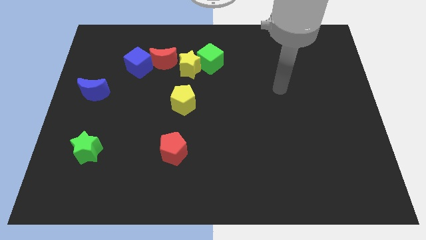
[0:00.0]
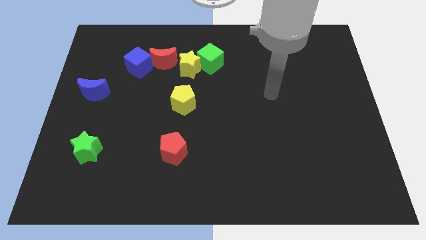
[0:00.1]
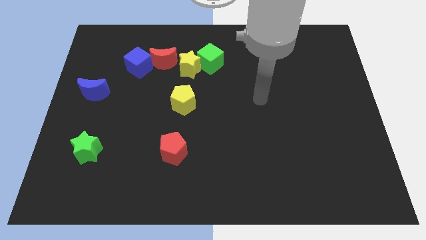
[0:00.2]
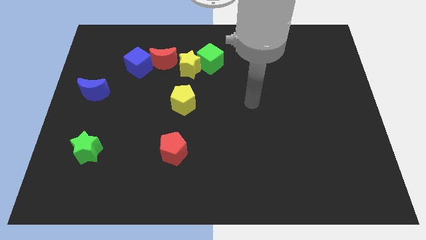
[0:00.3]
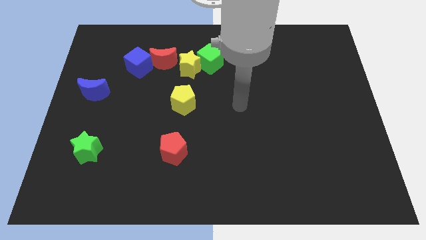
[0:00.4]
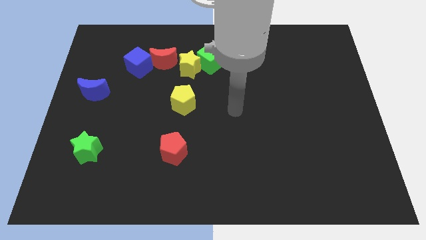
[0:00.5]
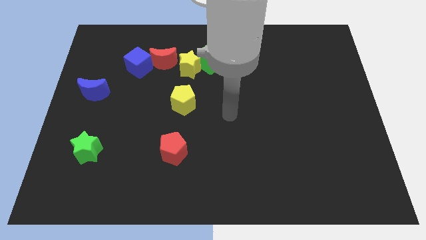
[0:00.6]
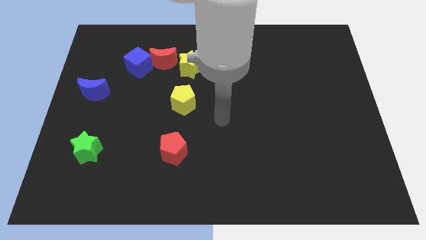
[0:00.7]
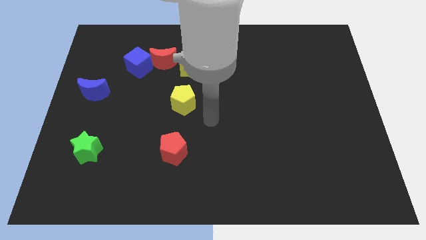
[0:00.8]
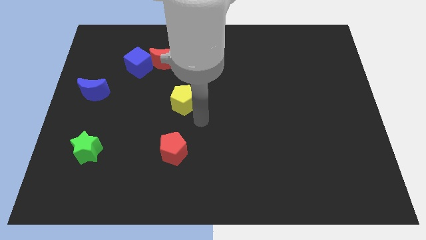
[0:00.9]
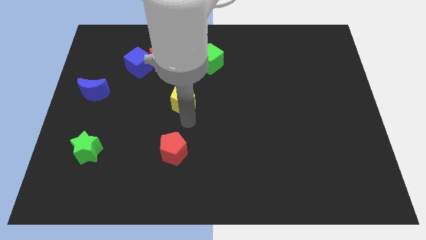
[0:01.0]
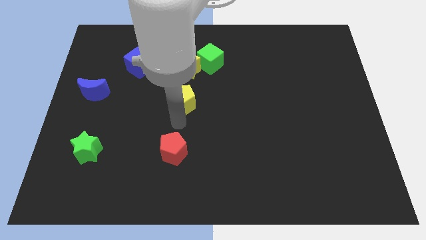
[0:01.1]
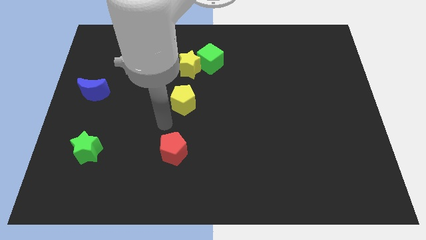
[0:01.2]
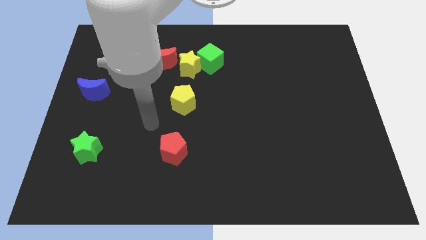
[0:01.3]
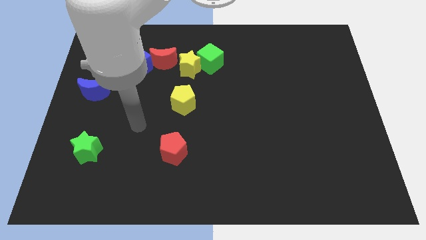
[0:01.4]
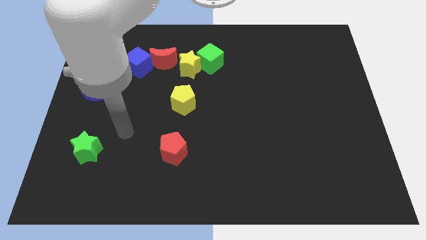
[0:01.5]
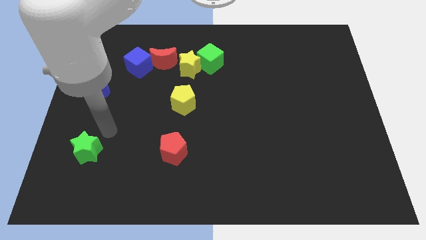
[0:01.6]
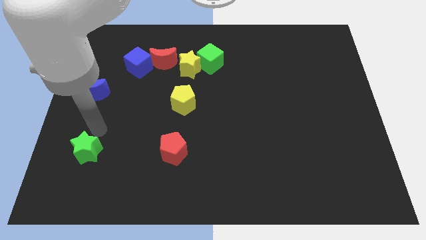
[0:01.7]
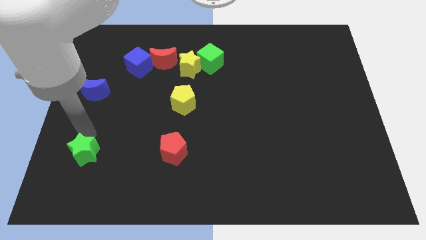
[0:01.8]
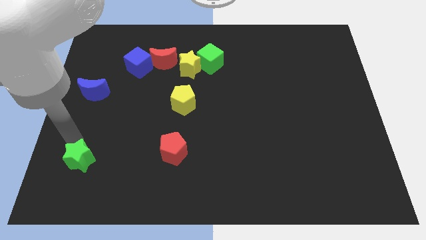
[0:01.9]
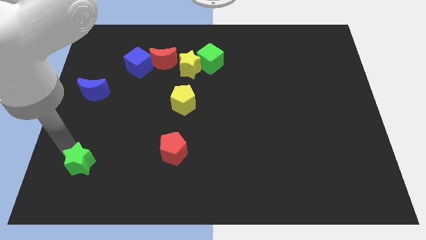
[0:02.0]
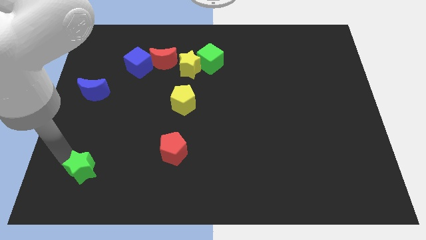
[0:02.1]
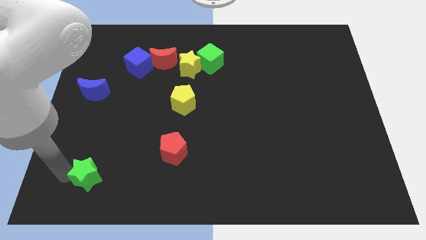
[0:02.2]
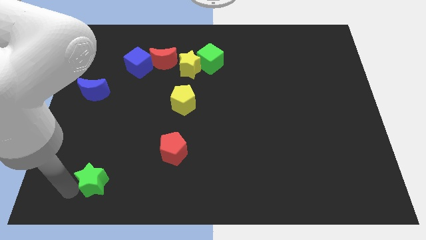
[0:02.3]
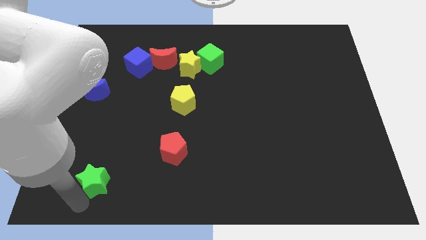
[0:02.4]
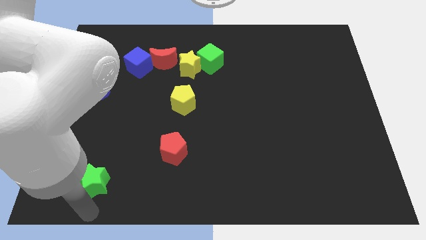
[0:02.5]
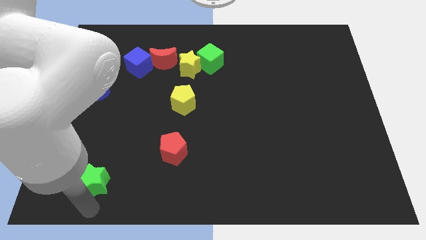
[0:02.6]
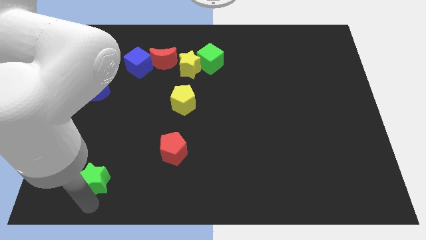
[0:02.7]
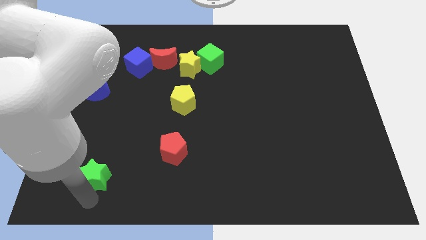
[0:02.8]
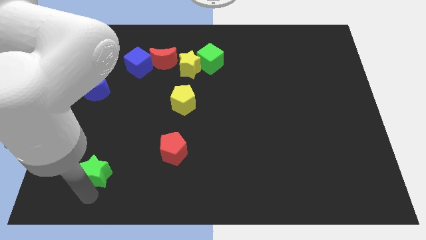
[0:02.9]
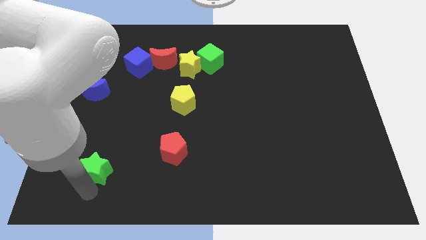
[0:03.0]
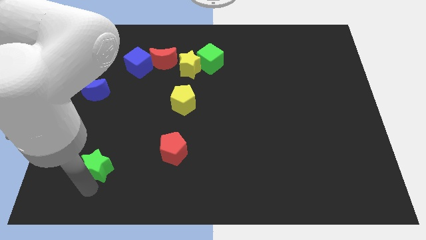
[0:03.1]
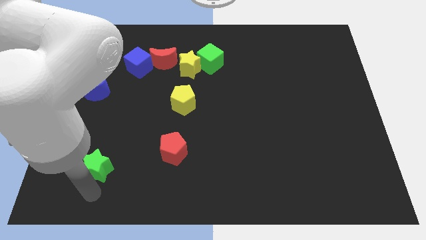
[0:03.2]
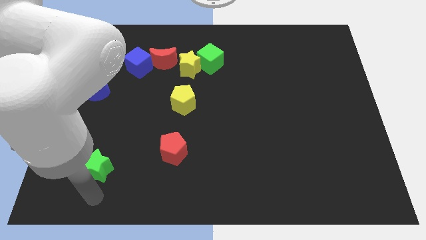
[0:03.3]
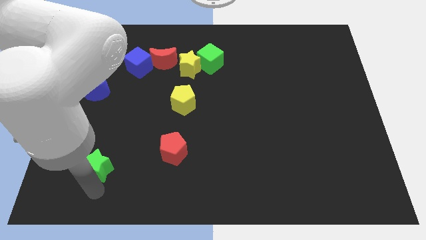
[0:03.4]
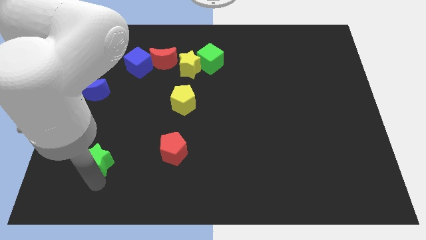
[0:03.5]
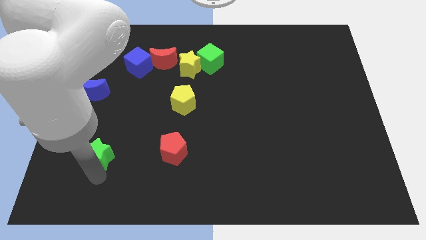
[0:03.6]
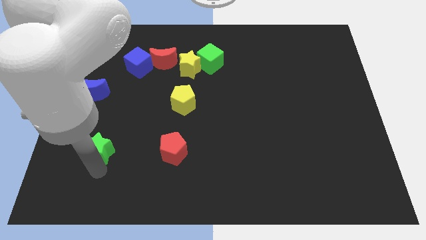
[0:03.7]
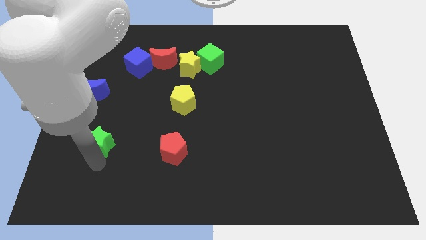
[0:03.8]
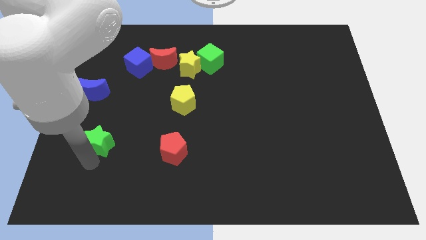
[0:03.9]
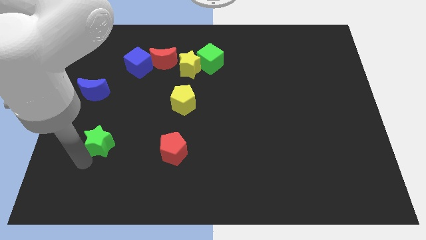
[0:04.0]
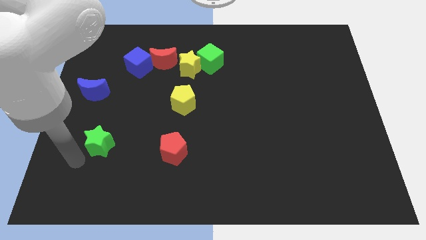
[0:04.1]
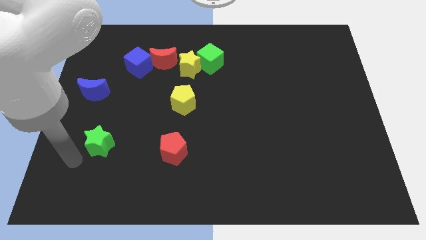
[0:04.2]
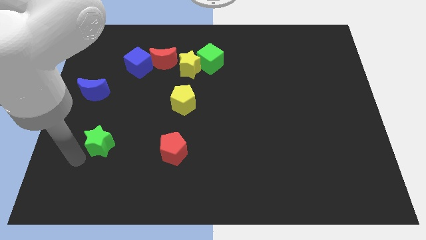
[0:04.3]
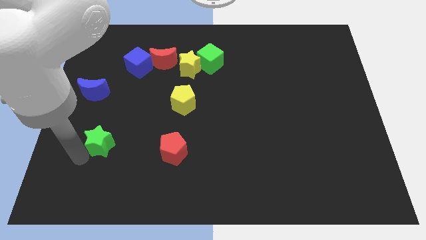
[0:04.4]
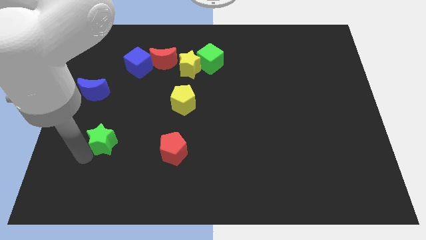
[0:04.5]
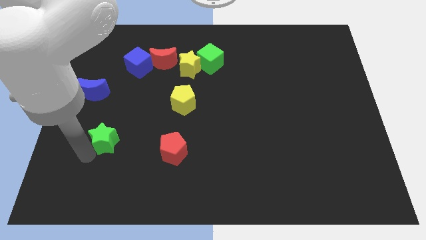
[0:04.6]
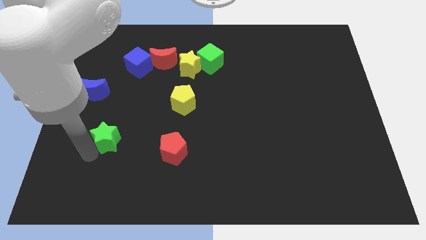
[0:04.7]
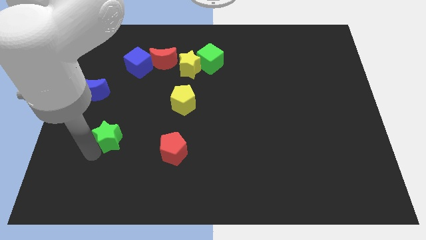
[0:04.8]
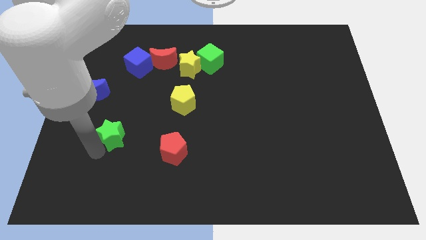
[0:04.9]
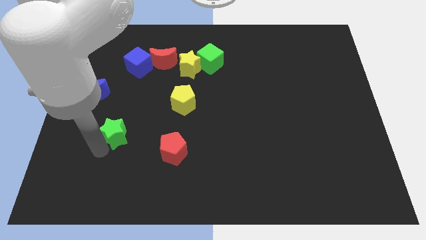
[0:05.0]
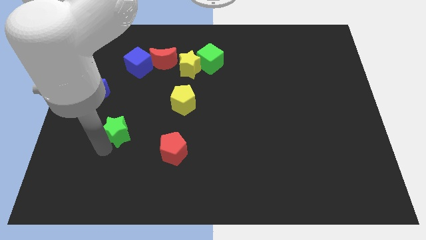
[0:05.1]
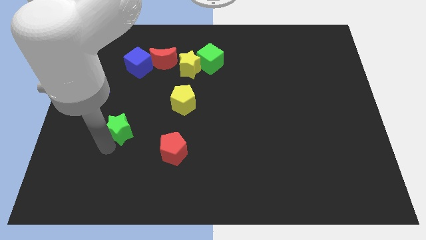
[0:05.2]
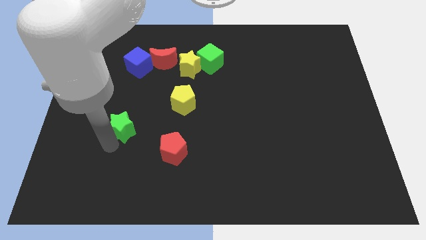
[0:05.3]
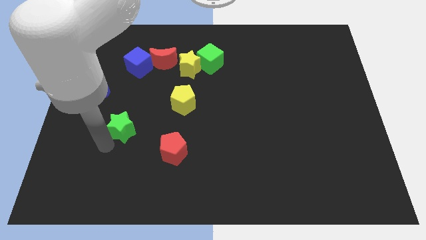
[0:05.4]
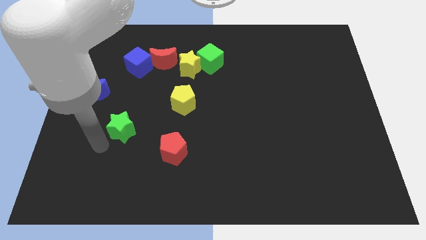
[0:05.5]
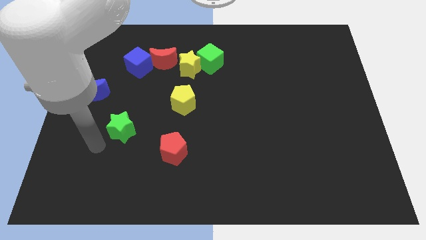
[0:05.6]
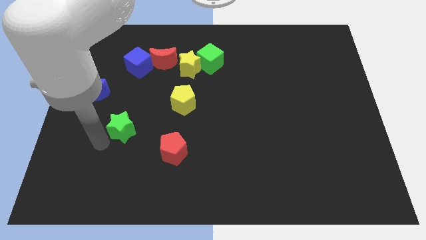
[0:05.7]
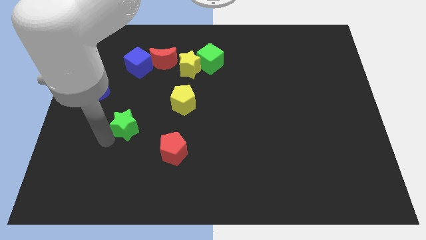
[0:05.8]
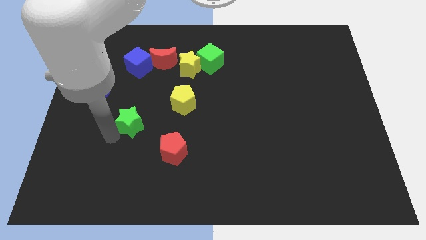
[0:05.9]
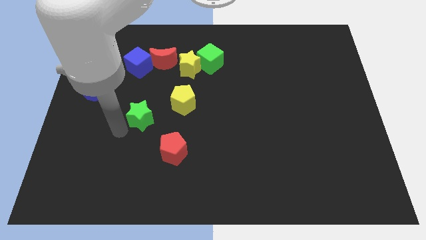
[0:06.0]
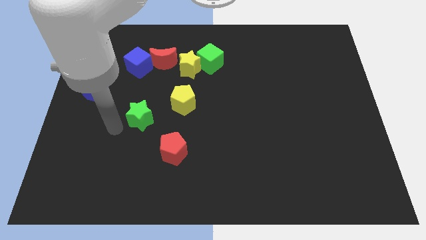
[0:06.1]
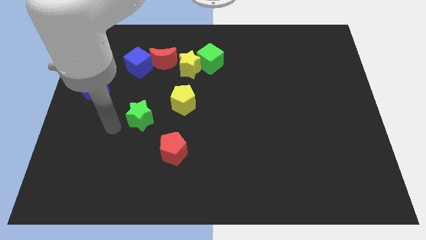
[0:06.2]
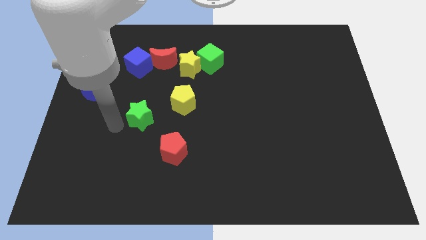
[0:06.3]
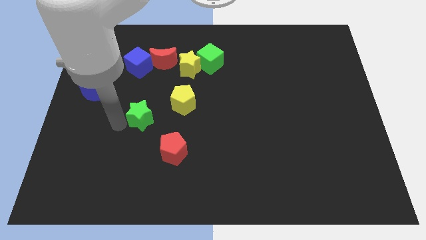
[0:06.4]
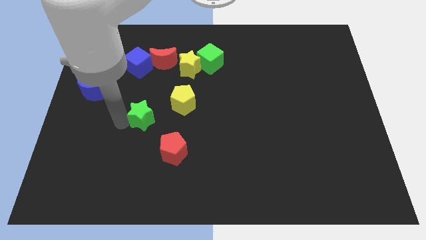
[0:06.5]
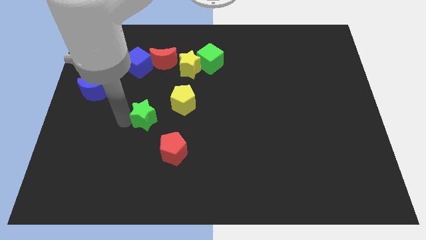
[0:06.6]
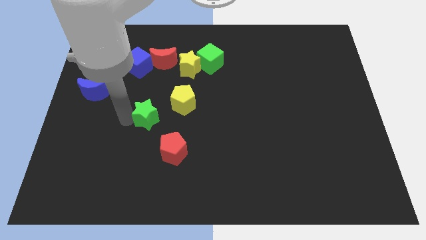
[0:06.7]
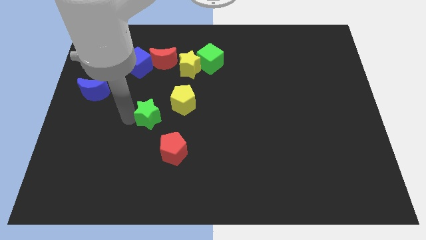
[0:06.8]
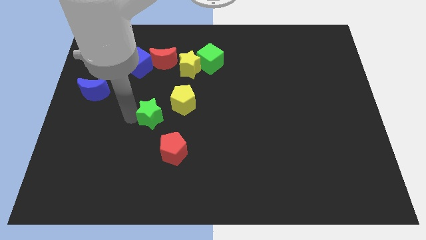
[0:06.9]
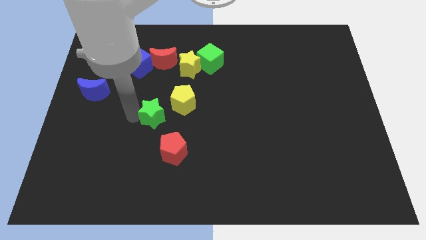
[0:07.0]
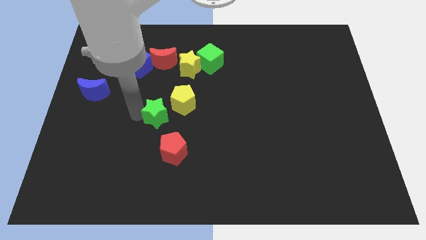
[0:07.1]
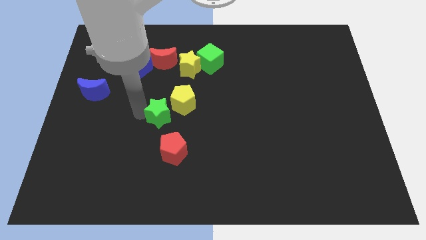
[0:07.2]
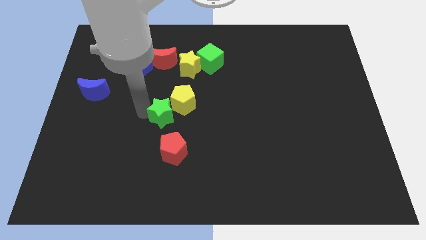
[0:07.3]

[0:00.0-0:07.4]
push the green star next to the yellow pentagon
